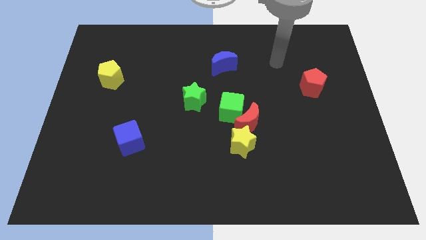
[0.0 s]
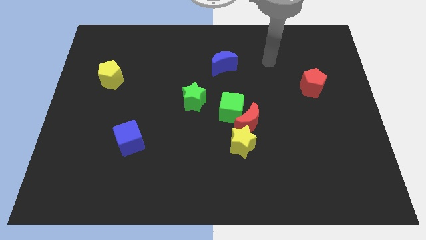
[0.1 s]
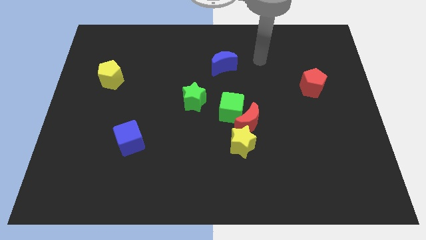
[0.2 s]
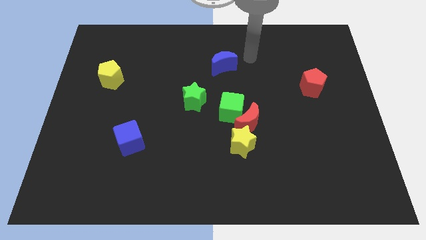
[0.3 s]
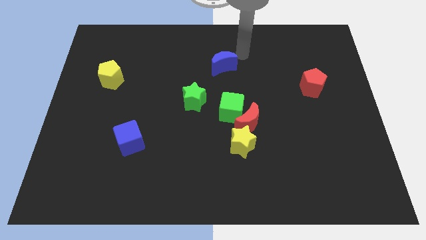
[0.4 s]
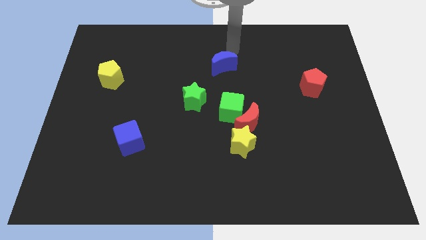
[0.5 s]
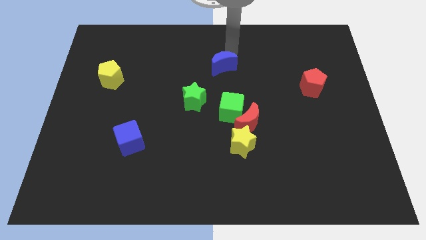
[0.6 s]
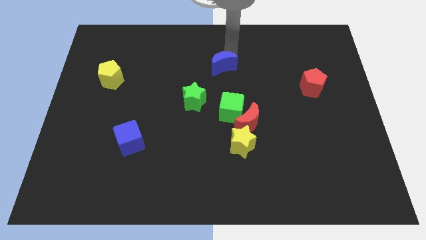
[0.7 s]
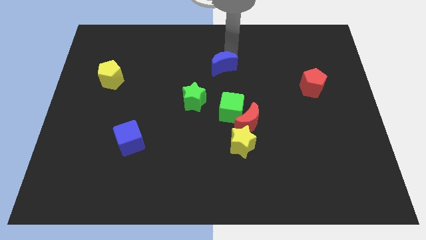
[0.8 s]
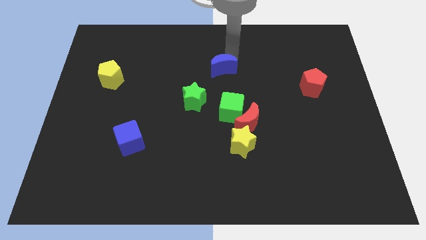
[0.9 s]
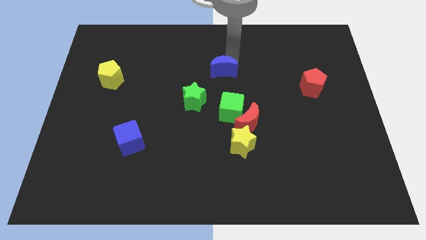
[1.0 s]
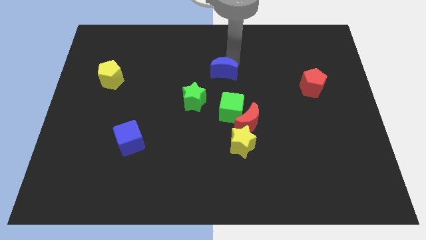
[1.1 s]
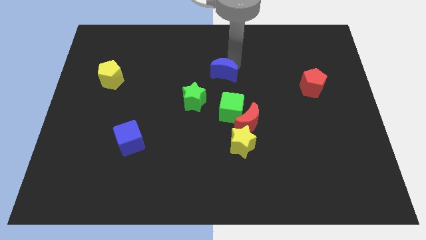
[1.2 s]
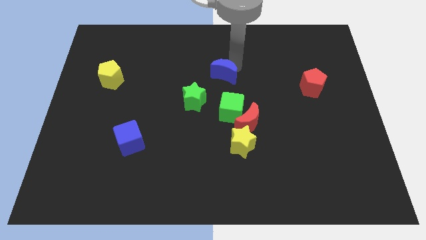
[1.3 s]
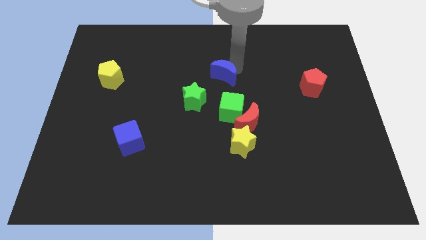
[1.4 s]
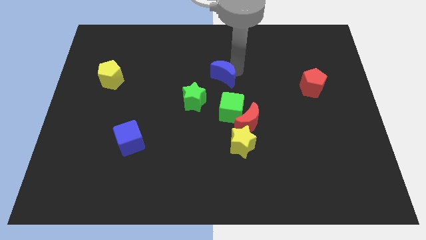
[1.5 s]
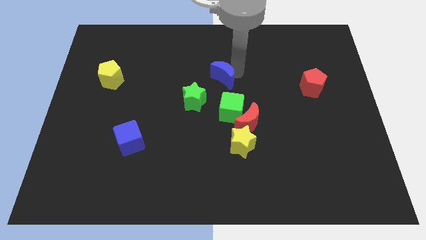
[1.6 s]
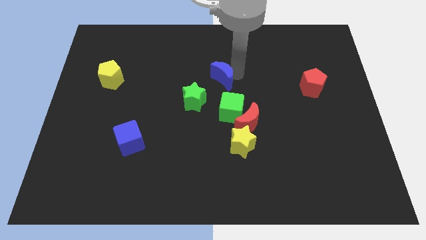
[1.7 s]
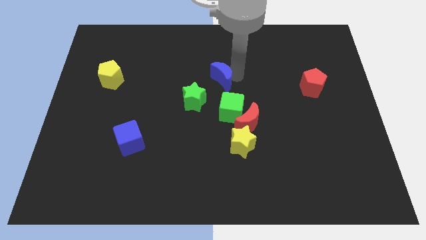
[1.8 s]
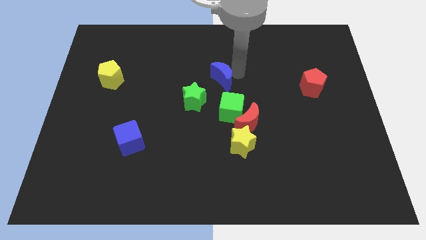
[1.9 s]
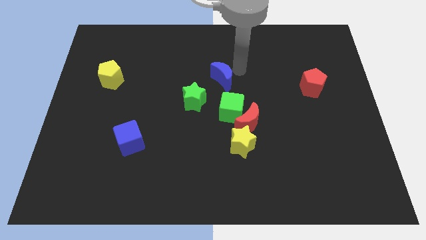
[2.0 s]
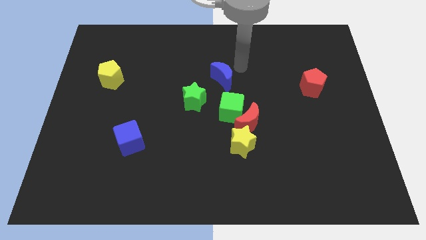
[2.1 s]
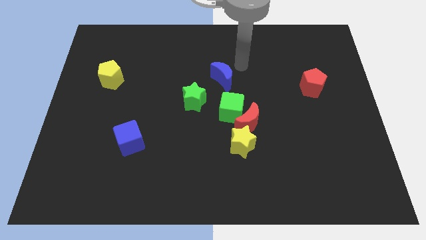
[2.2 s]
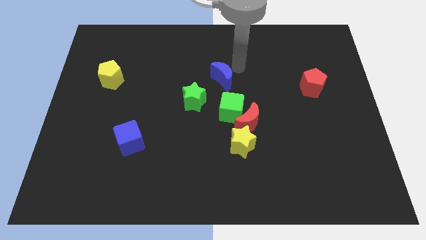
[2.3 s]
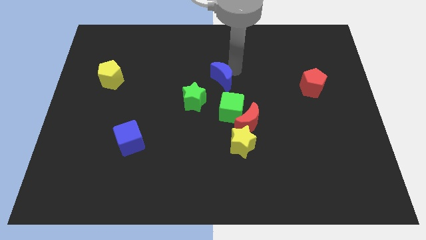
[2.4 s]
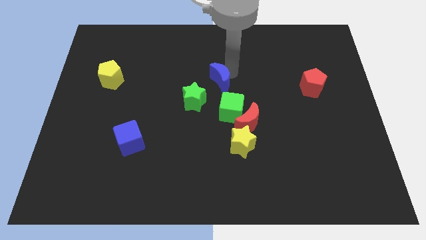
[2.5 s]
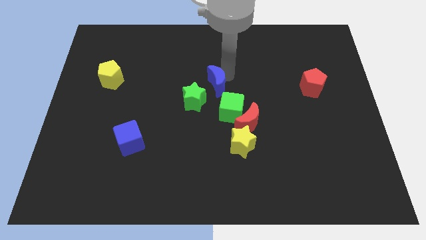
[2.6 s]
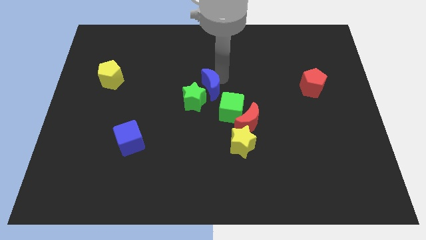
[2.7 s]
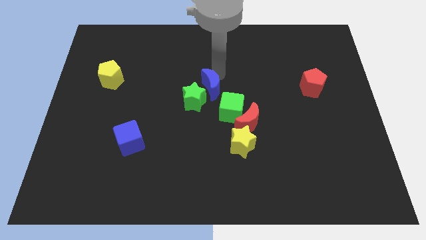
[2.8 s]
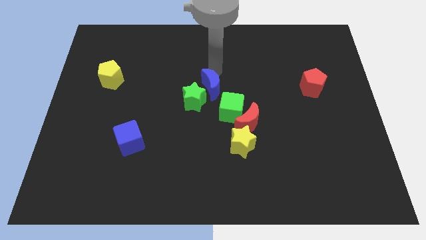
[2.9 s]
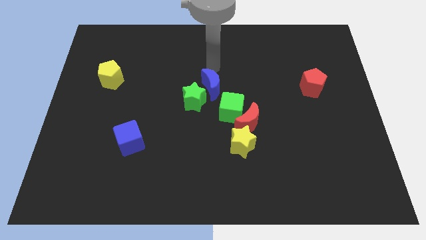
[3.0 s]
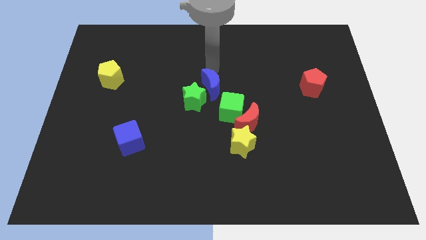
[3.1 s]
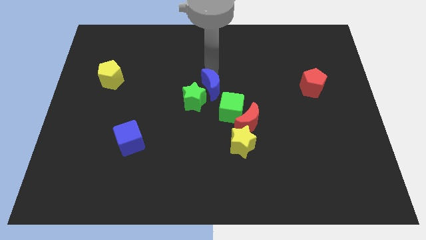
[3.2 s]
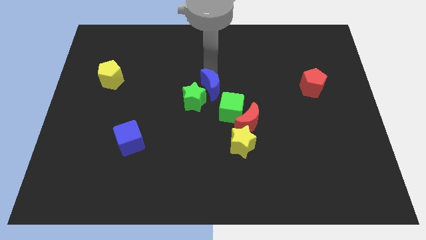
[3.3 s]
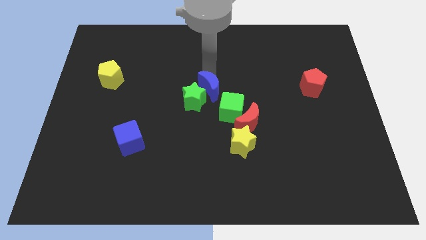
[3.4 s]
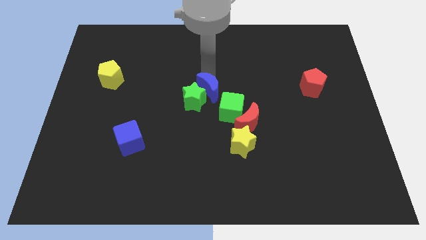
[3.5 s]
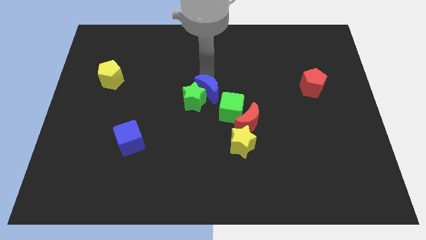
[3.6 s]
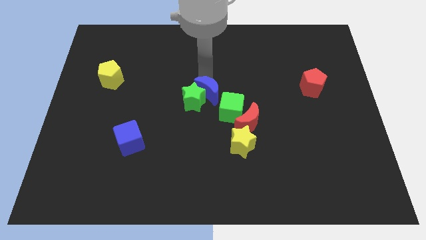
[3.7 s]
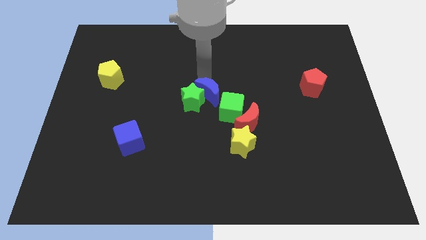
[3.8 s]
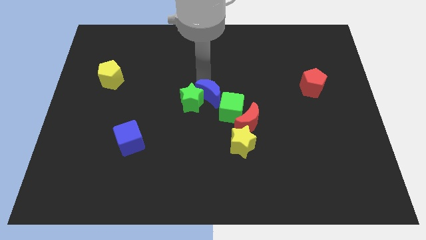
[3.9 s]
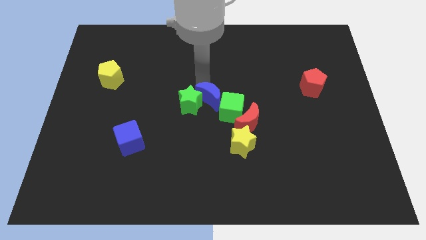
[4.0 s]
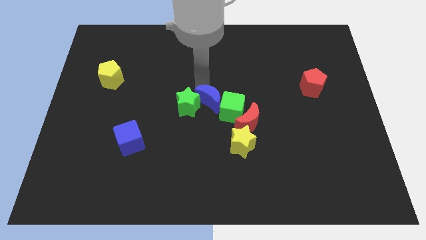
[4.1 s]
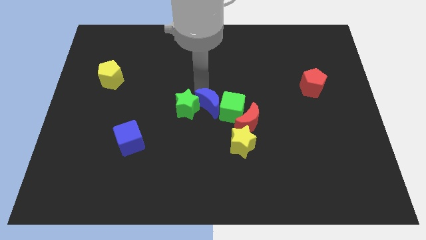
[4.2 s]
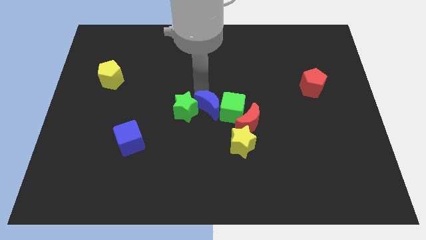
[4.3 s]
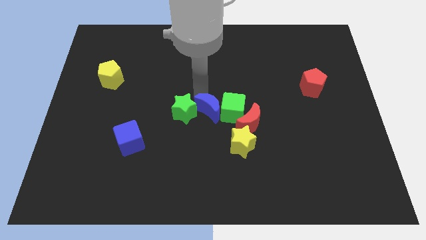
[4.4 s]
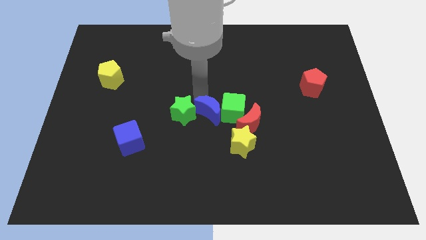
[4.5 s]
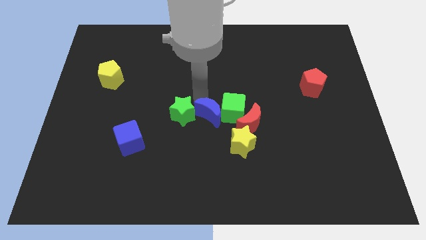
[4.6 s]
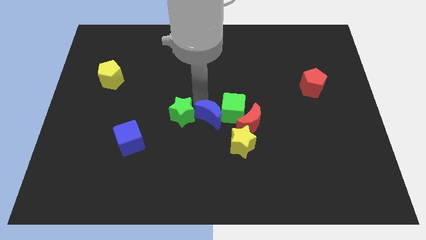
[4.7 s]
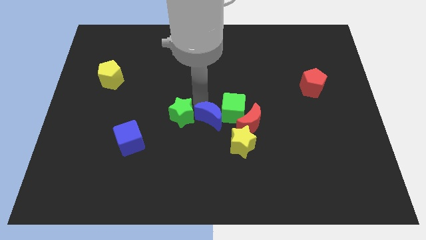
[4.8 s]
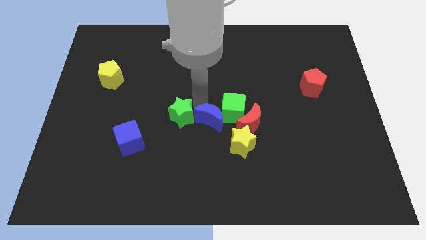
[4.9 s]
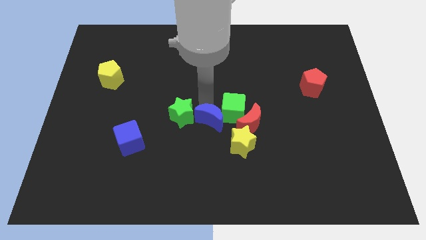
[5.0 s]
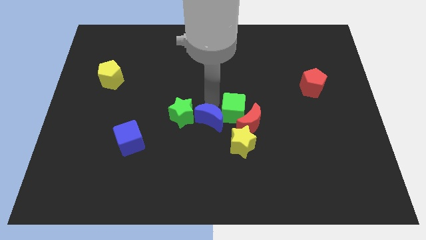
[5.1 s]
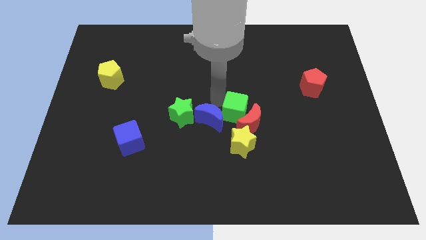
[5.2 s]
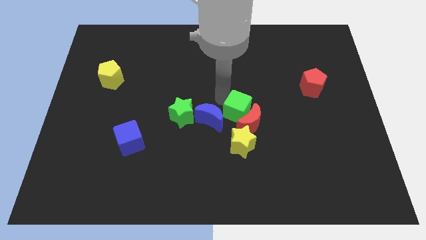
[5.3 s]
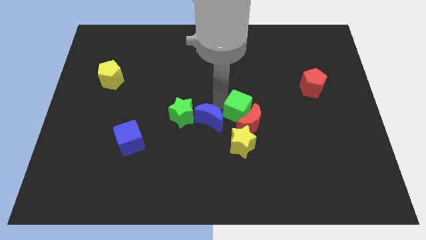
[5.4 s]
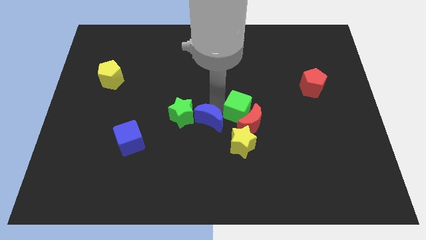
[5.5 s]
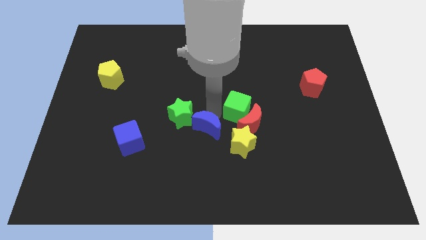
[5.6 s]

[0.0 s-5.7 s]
slide the blue moon just left of the yellow star

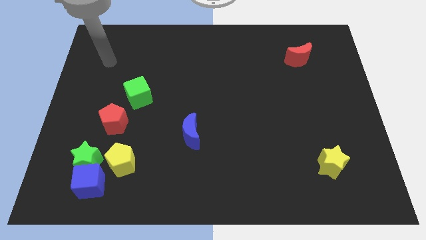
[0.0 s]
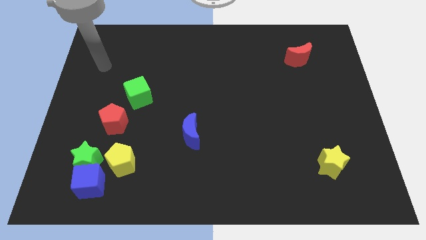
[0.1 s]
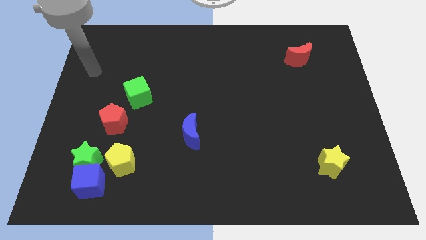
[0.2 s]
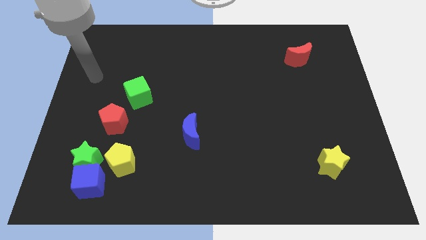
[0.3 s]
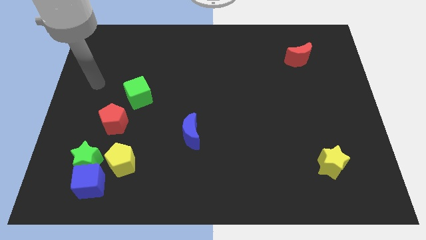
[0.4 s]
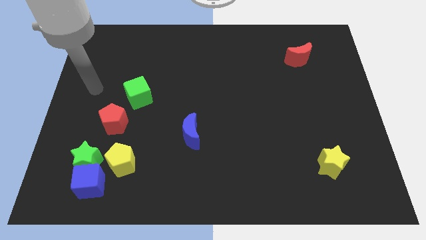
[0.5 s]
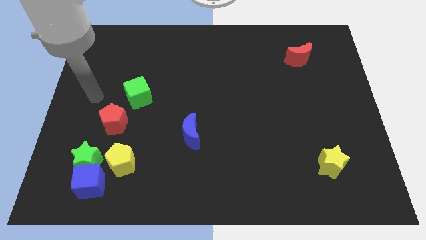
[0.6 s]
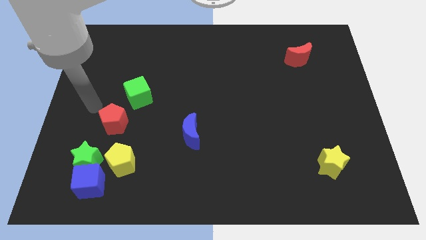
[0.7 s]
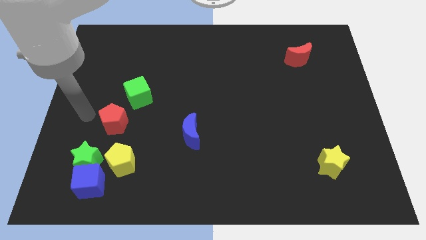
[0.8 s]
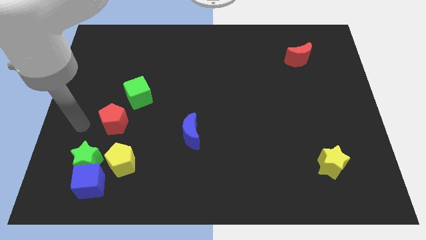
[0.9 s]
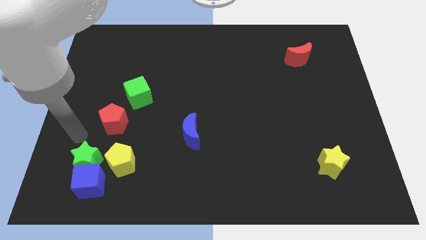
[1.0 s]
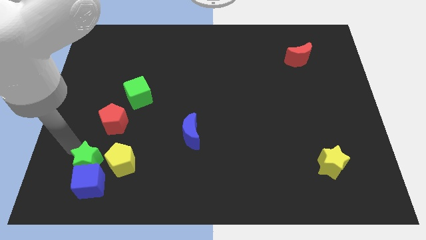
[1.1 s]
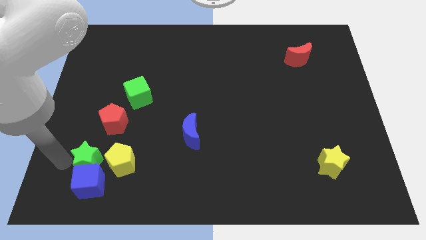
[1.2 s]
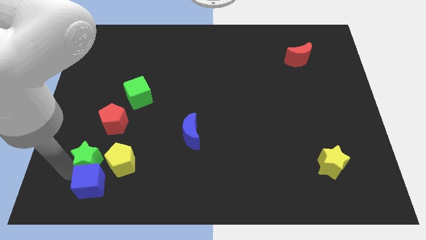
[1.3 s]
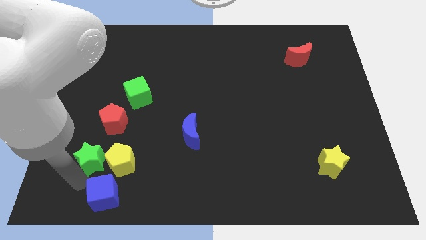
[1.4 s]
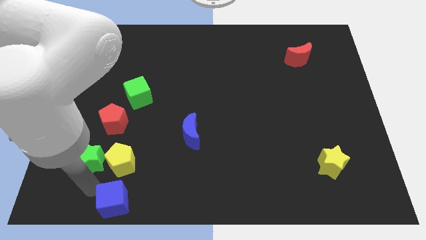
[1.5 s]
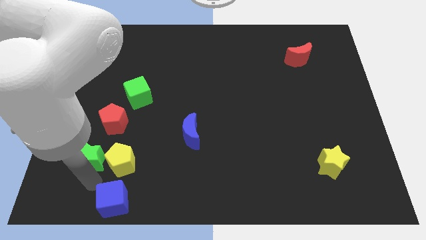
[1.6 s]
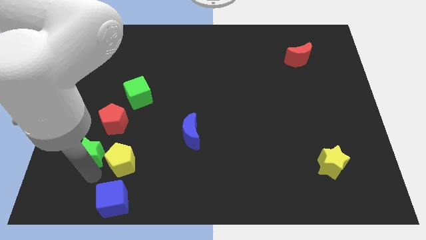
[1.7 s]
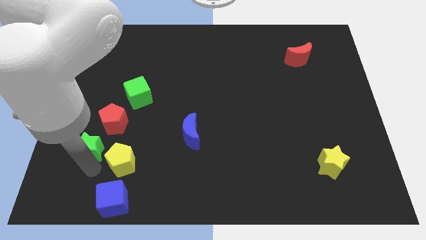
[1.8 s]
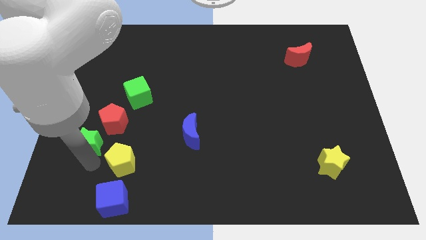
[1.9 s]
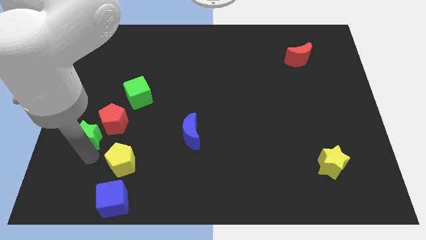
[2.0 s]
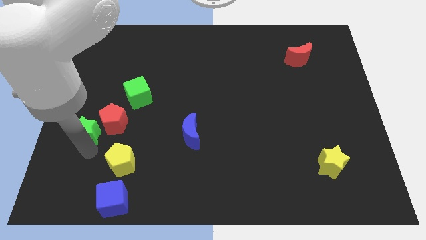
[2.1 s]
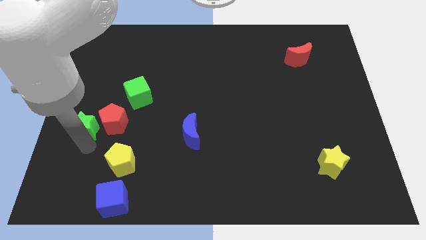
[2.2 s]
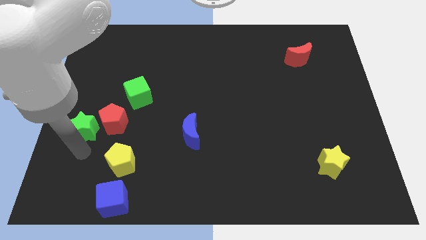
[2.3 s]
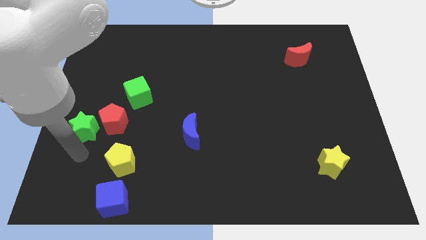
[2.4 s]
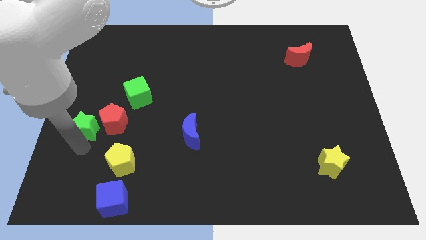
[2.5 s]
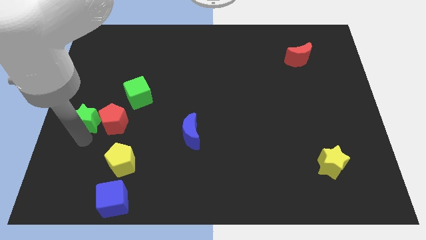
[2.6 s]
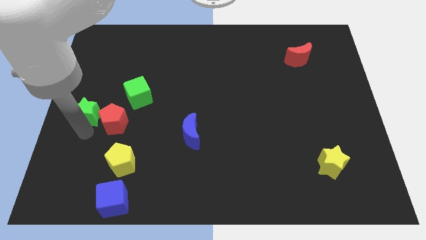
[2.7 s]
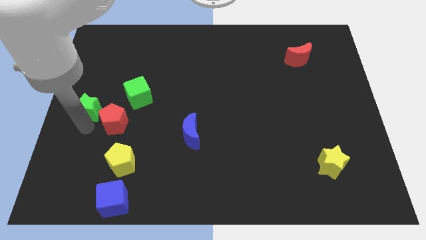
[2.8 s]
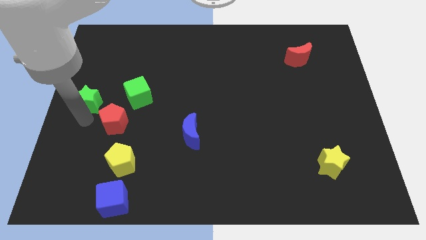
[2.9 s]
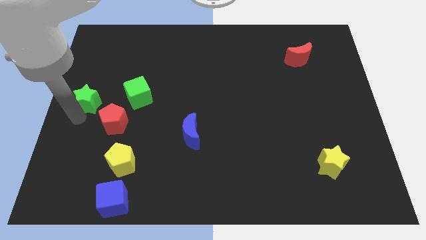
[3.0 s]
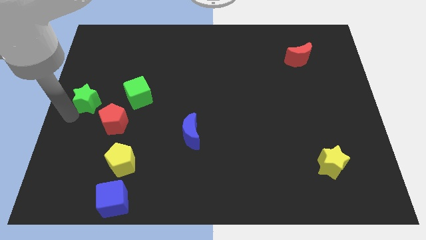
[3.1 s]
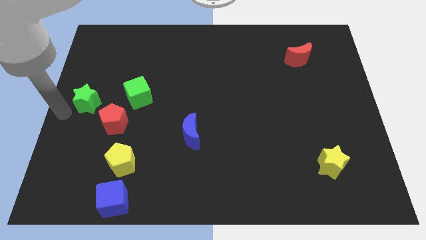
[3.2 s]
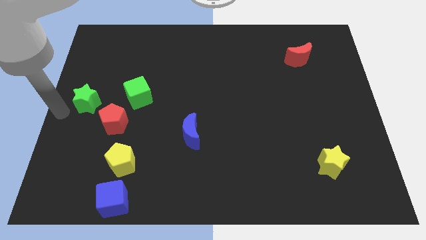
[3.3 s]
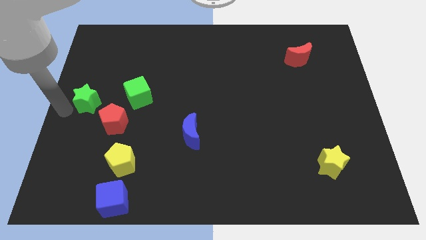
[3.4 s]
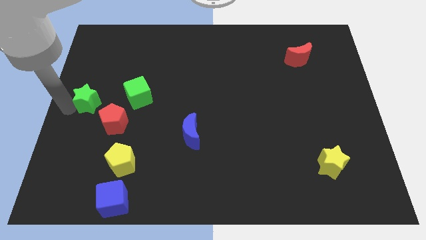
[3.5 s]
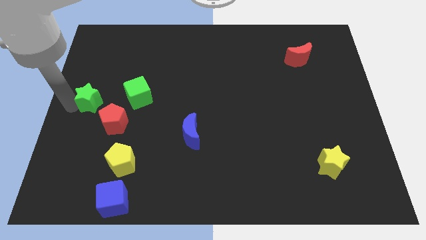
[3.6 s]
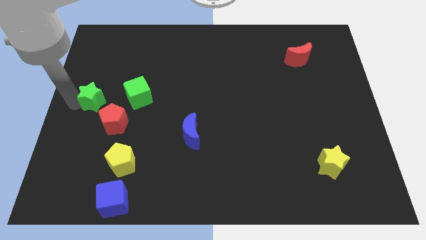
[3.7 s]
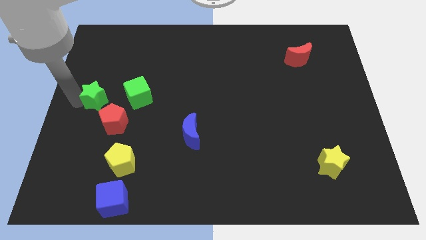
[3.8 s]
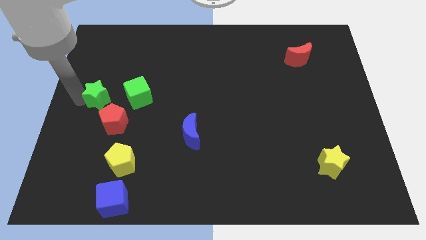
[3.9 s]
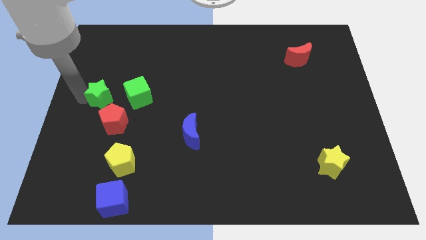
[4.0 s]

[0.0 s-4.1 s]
push the green star above the red pentagon
